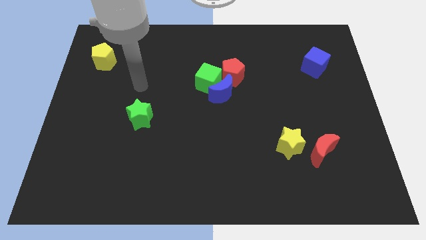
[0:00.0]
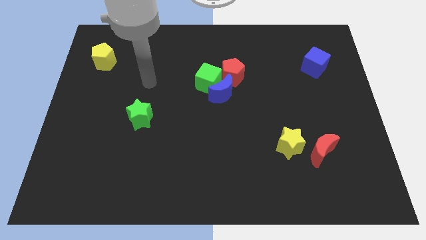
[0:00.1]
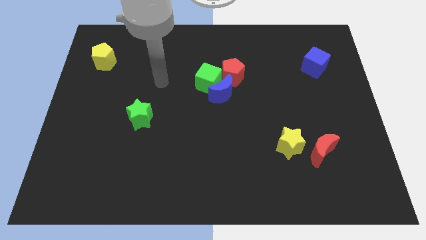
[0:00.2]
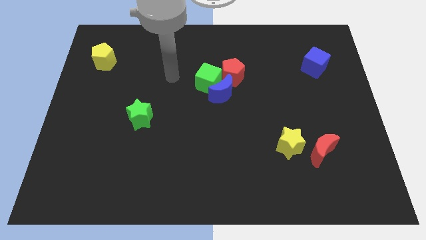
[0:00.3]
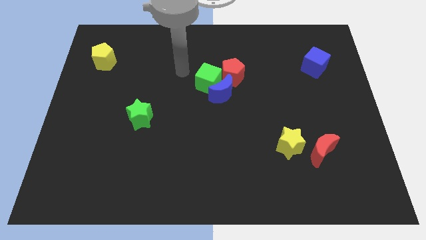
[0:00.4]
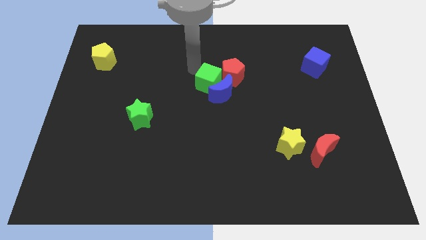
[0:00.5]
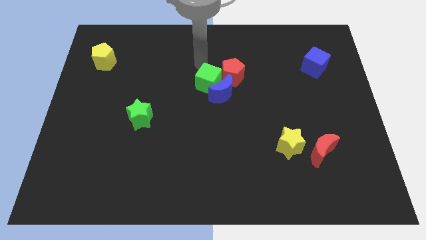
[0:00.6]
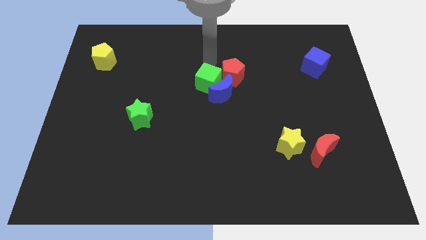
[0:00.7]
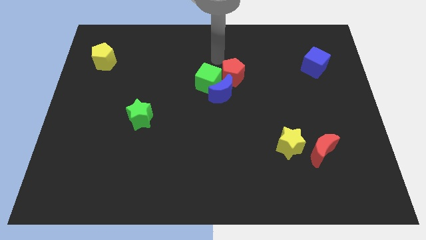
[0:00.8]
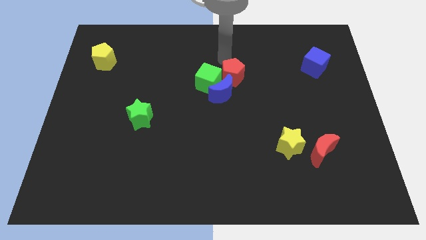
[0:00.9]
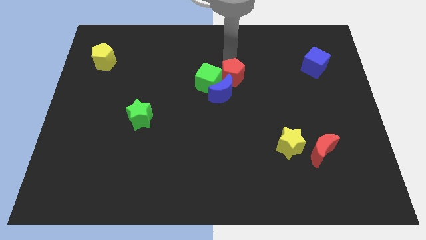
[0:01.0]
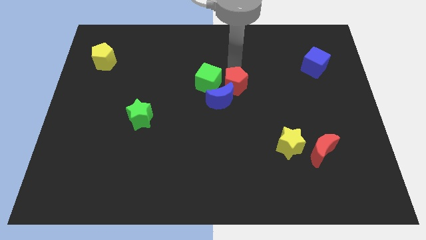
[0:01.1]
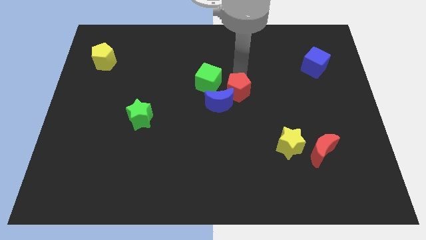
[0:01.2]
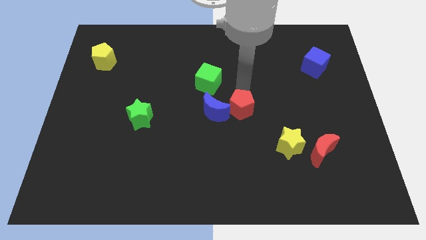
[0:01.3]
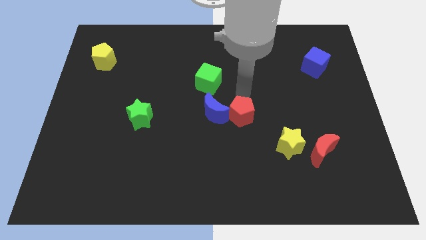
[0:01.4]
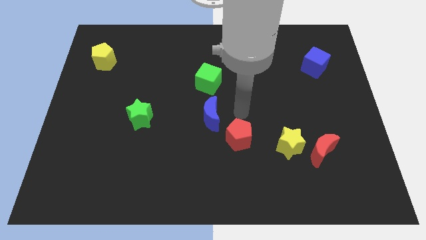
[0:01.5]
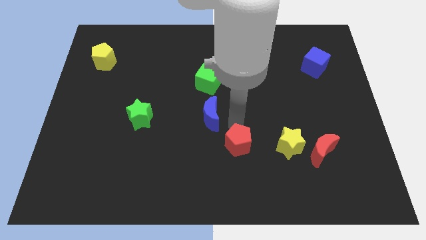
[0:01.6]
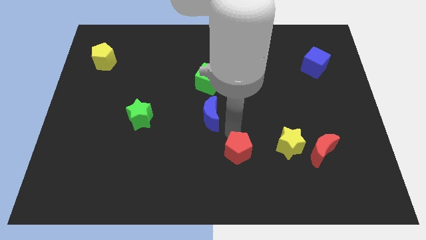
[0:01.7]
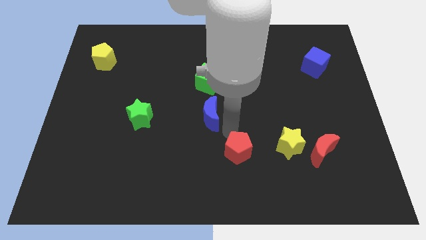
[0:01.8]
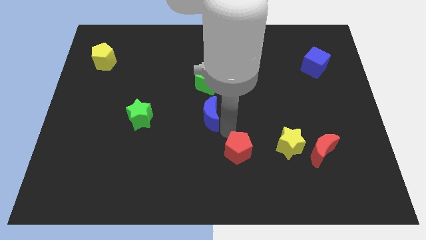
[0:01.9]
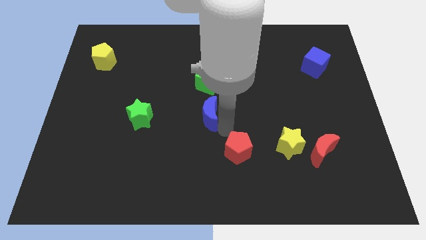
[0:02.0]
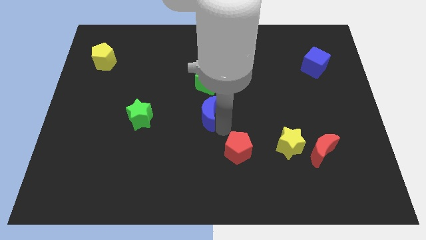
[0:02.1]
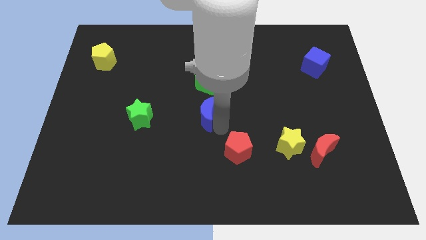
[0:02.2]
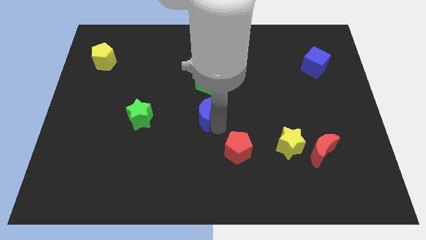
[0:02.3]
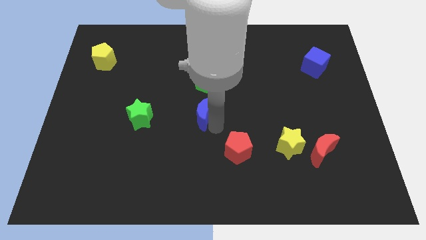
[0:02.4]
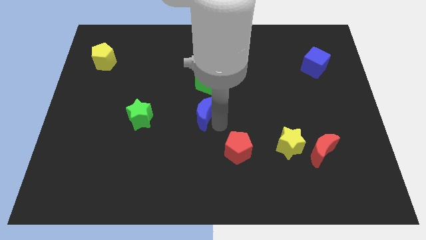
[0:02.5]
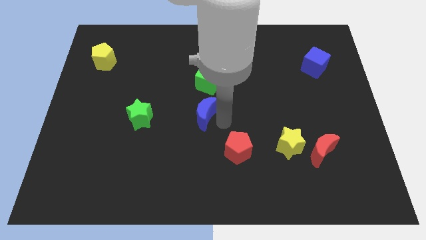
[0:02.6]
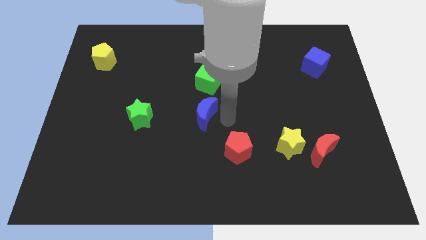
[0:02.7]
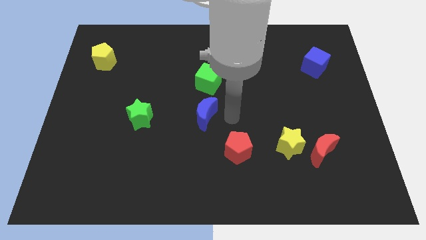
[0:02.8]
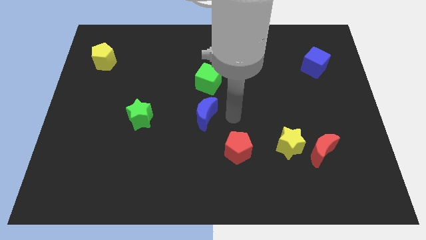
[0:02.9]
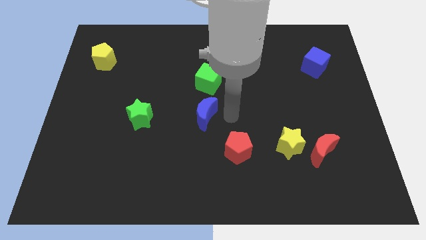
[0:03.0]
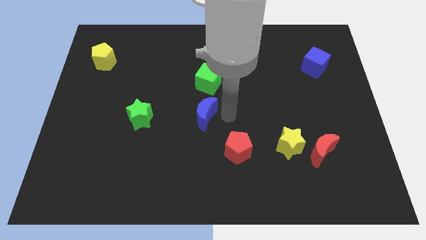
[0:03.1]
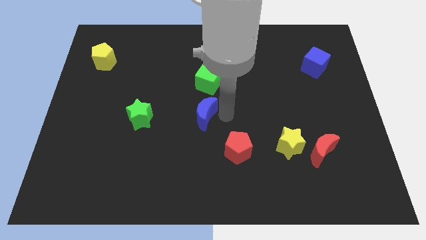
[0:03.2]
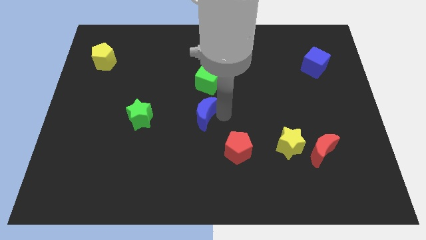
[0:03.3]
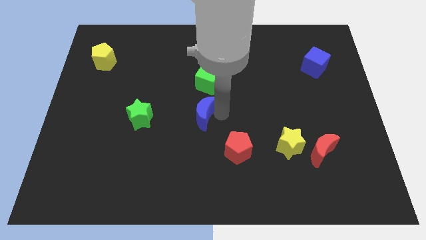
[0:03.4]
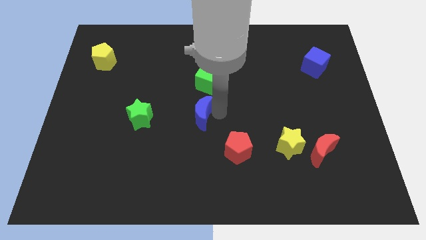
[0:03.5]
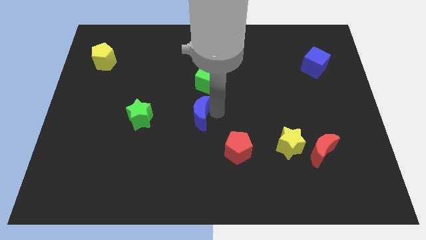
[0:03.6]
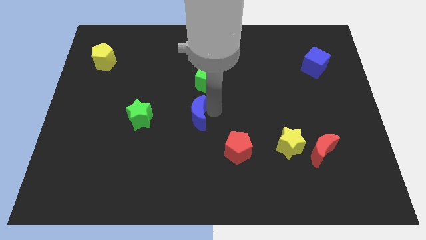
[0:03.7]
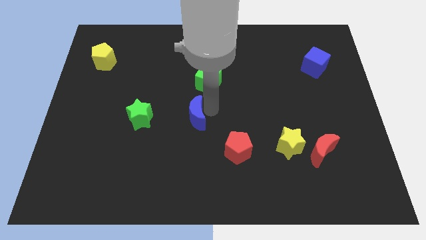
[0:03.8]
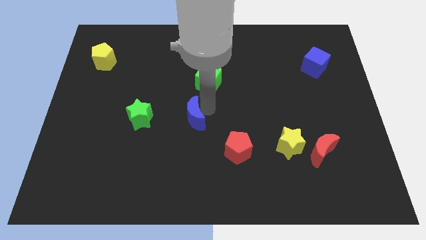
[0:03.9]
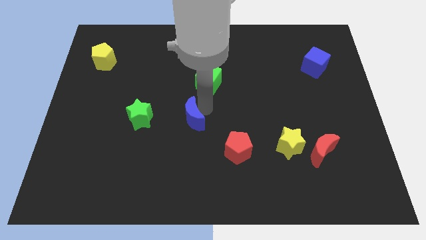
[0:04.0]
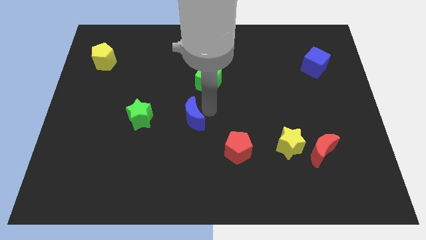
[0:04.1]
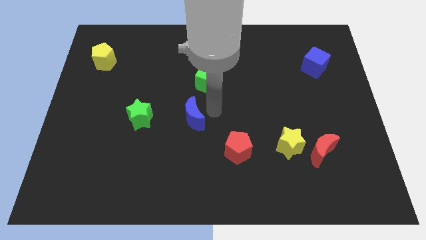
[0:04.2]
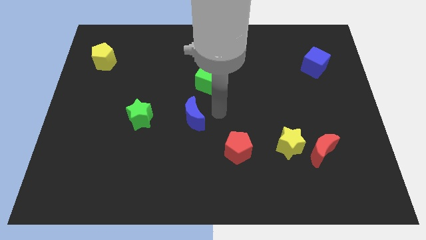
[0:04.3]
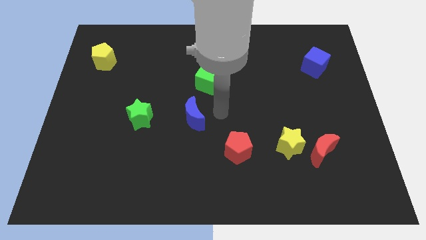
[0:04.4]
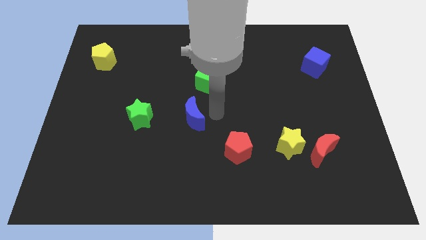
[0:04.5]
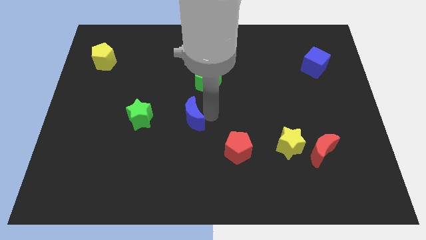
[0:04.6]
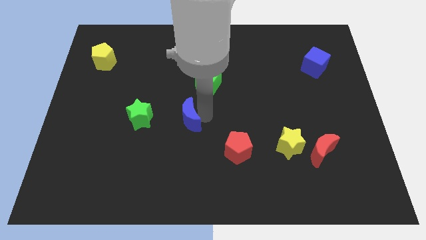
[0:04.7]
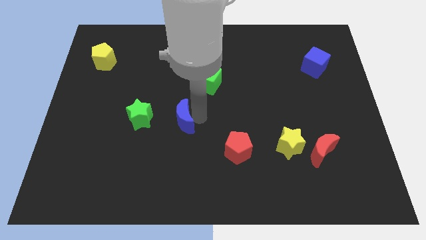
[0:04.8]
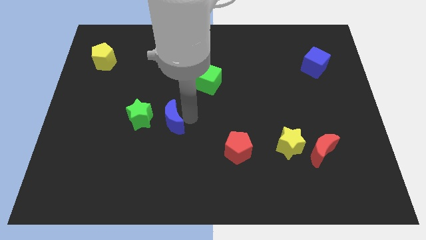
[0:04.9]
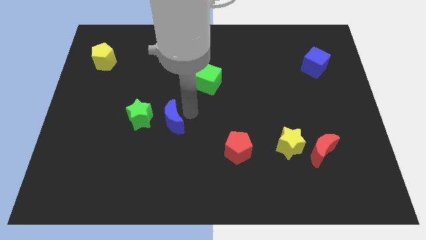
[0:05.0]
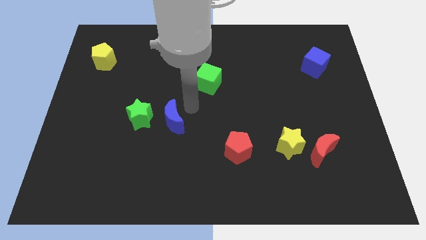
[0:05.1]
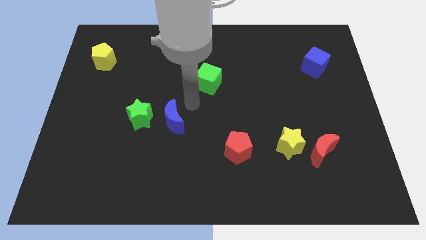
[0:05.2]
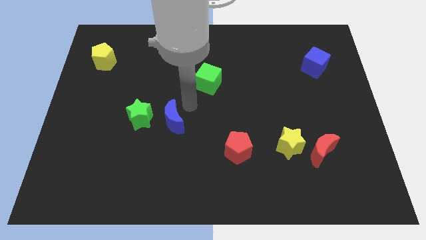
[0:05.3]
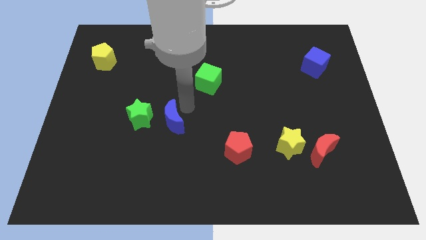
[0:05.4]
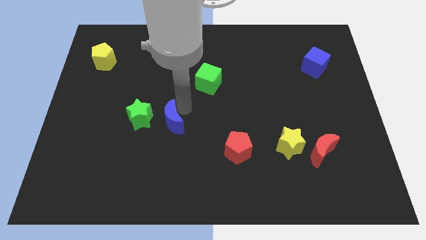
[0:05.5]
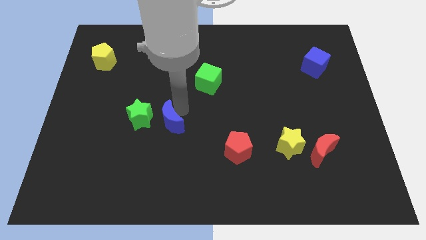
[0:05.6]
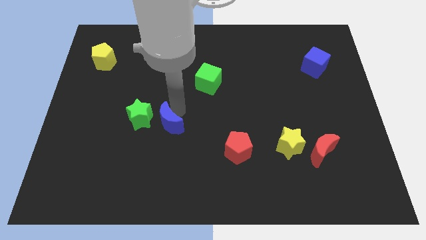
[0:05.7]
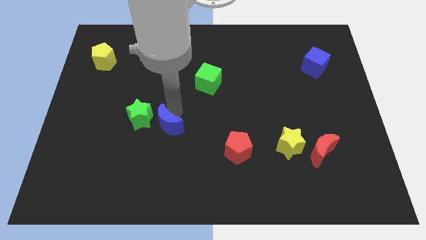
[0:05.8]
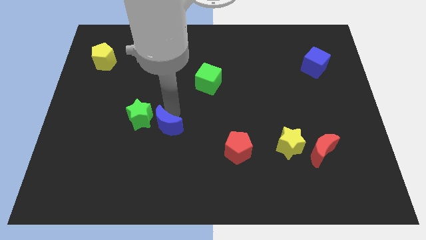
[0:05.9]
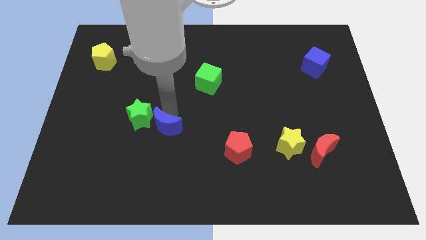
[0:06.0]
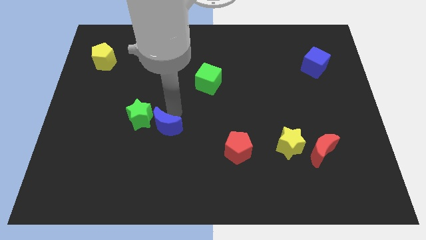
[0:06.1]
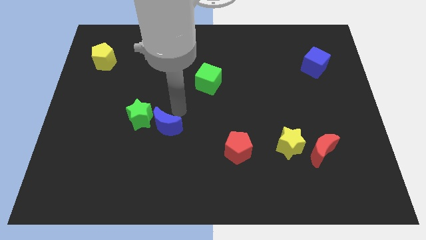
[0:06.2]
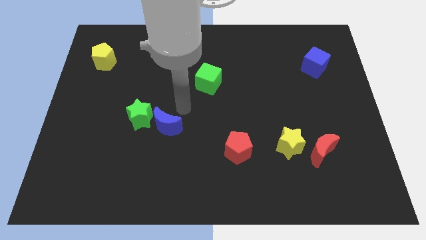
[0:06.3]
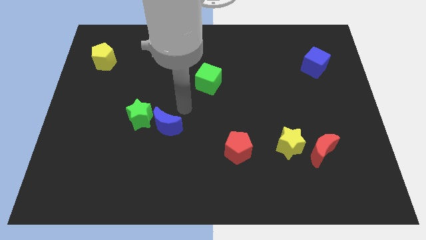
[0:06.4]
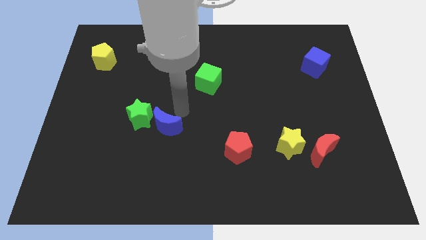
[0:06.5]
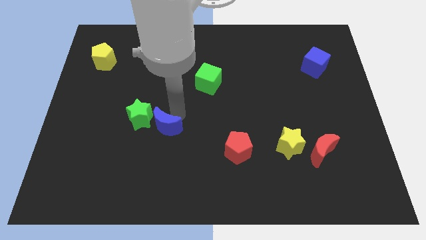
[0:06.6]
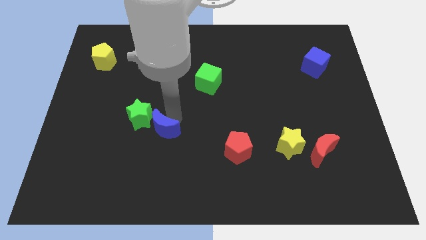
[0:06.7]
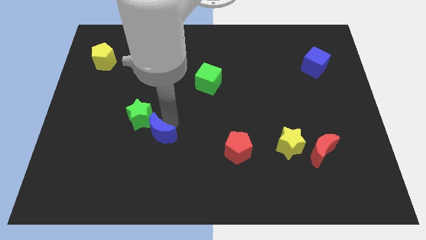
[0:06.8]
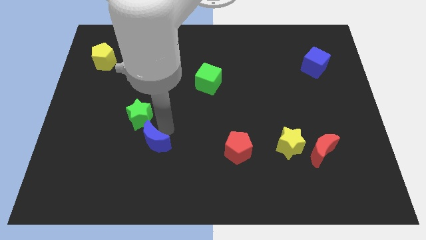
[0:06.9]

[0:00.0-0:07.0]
put the blue moon to the bottom of the green star

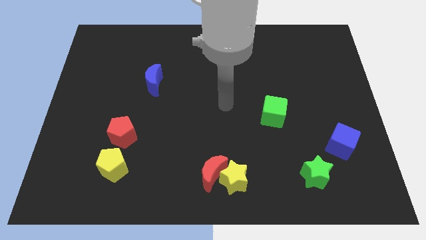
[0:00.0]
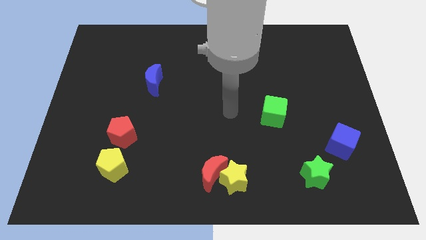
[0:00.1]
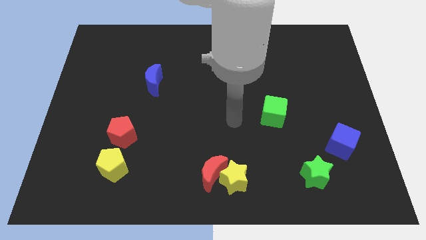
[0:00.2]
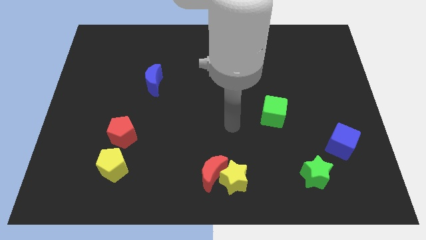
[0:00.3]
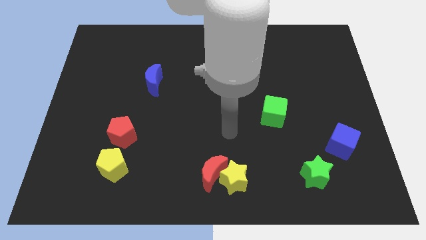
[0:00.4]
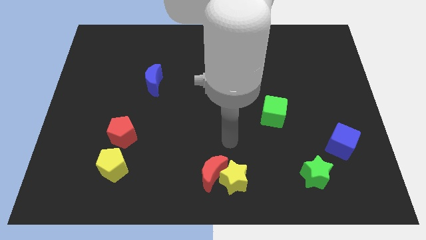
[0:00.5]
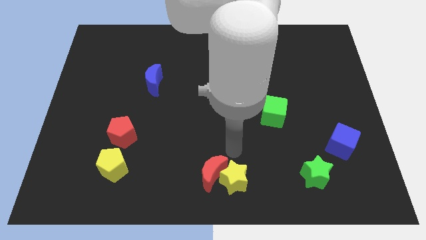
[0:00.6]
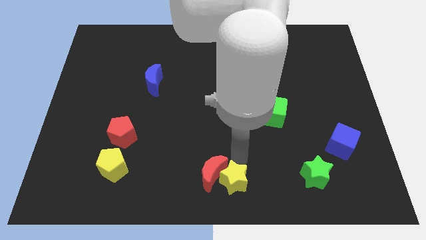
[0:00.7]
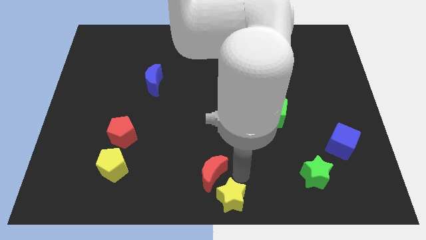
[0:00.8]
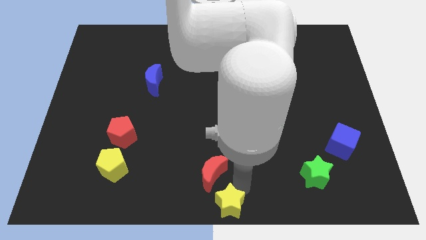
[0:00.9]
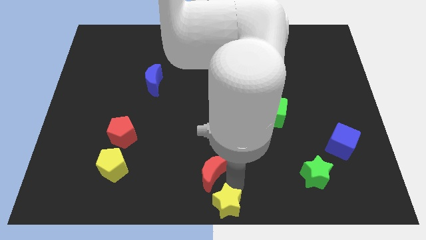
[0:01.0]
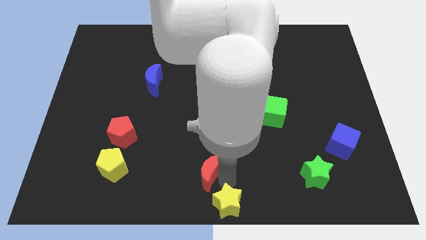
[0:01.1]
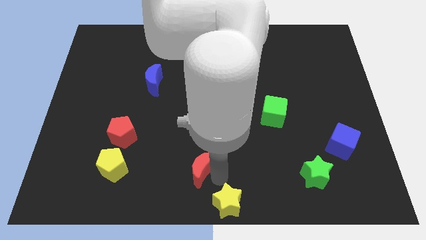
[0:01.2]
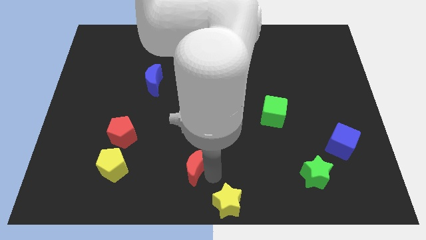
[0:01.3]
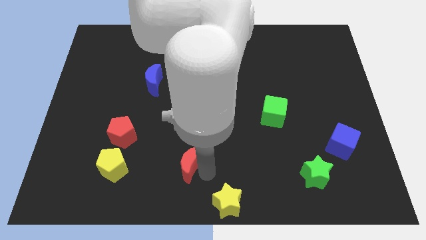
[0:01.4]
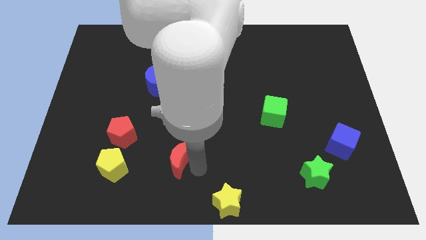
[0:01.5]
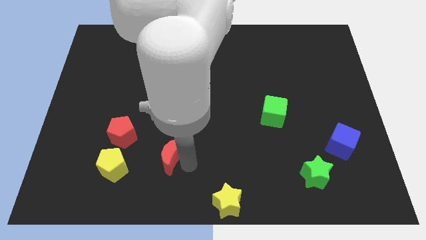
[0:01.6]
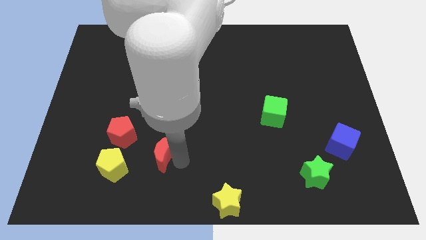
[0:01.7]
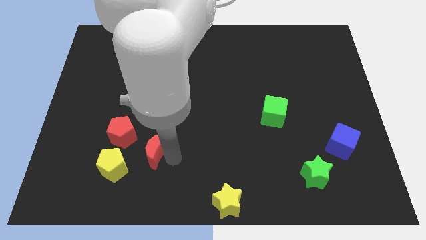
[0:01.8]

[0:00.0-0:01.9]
move the red moon to the top right of the yellow pentagon
